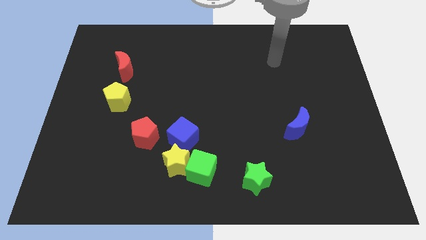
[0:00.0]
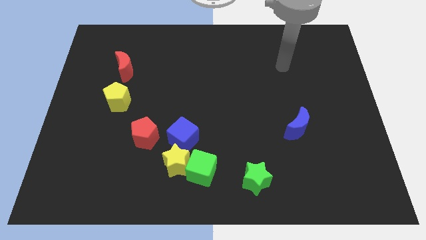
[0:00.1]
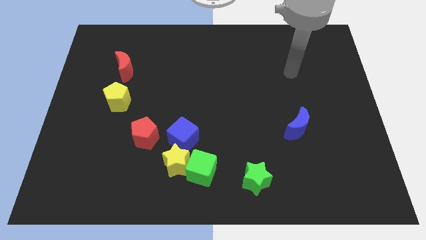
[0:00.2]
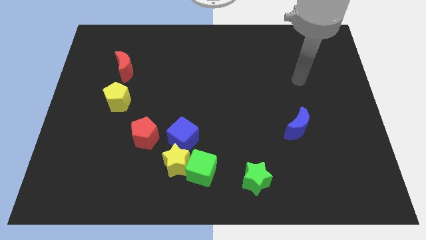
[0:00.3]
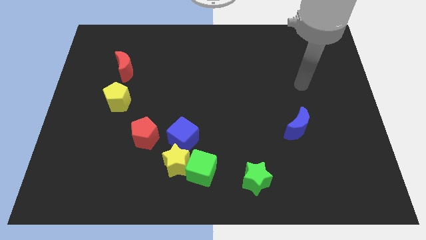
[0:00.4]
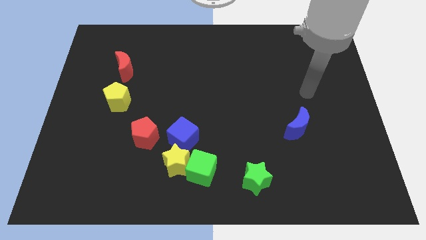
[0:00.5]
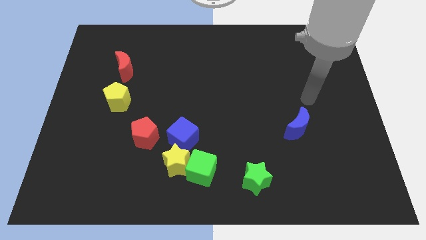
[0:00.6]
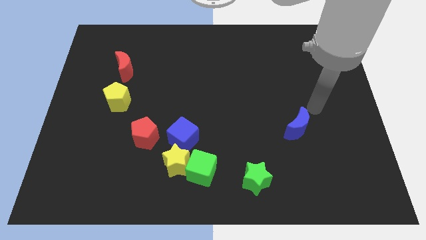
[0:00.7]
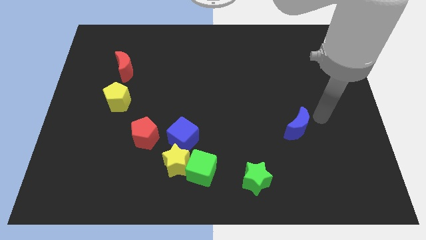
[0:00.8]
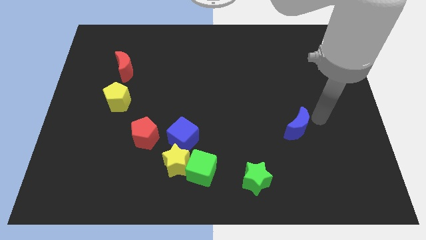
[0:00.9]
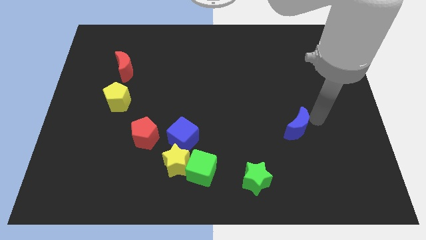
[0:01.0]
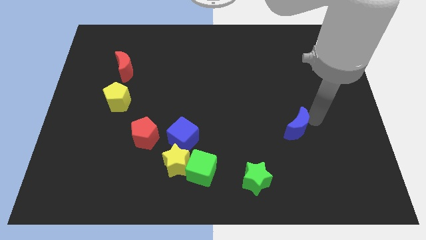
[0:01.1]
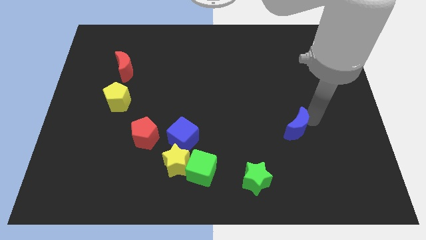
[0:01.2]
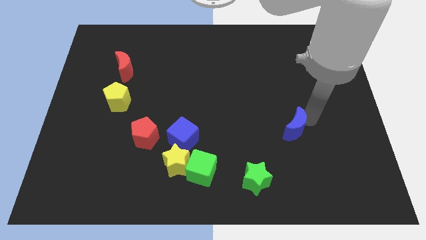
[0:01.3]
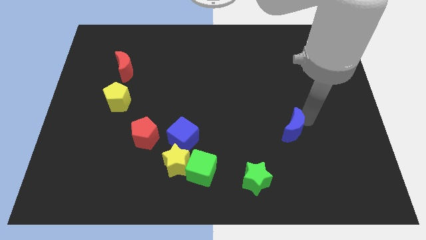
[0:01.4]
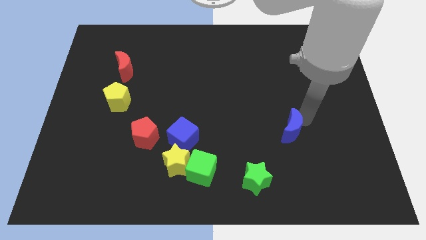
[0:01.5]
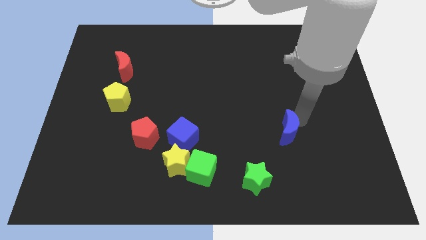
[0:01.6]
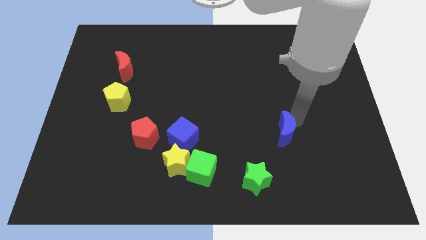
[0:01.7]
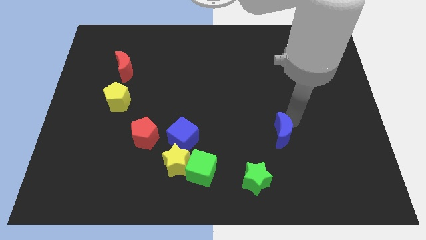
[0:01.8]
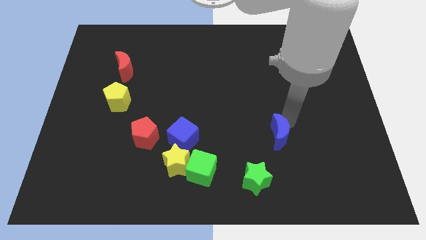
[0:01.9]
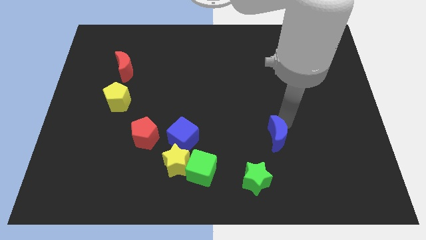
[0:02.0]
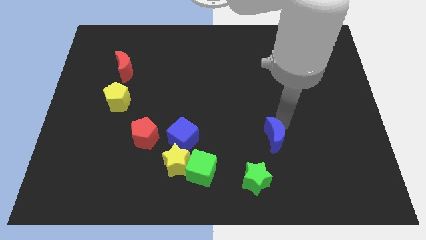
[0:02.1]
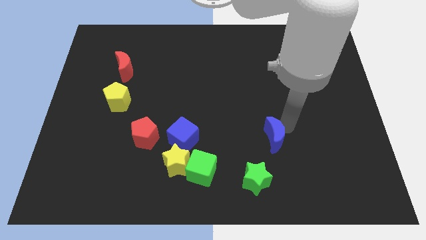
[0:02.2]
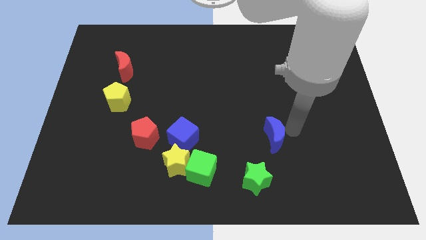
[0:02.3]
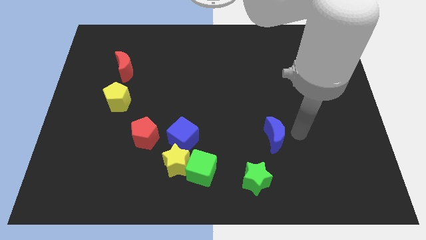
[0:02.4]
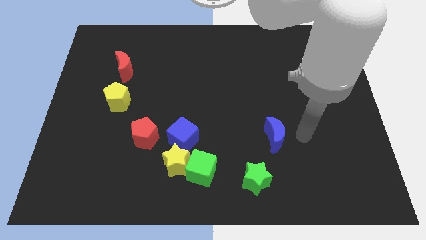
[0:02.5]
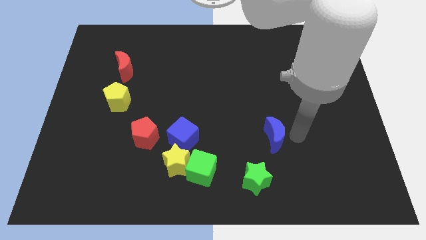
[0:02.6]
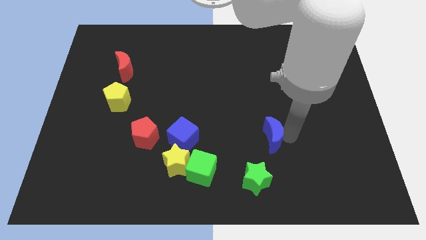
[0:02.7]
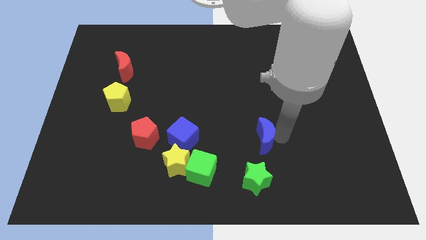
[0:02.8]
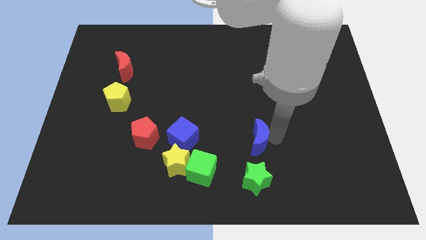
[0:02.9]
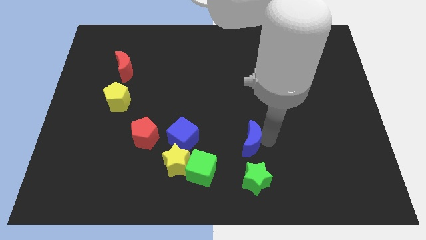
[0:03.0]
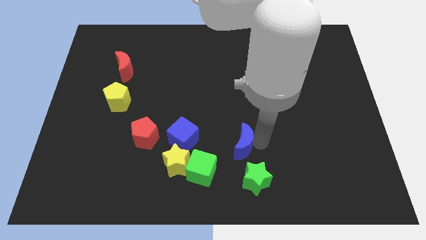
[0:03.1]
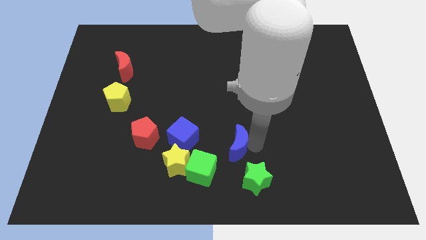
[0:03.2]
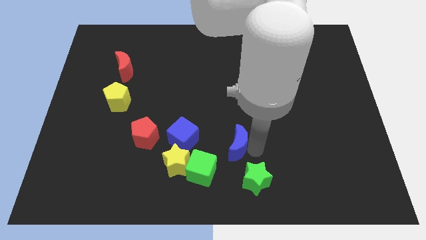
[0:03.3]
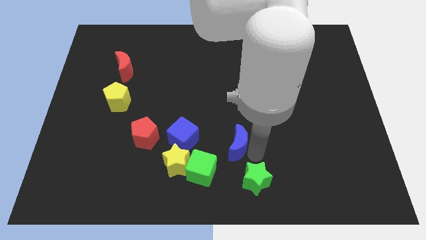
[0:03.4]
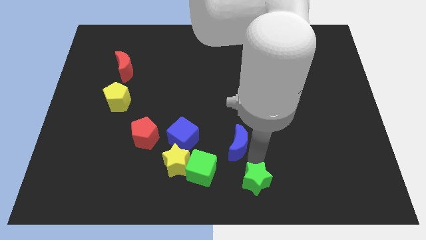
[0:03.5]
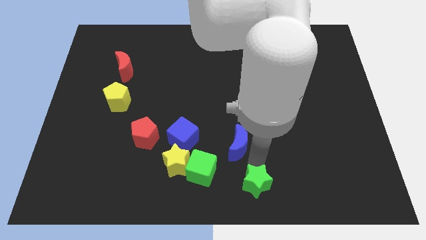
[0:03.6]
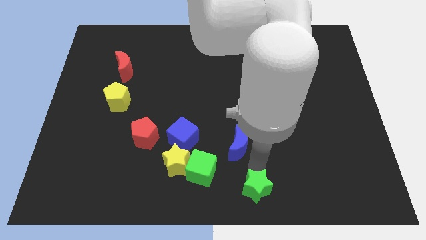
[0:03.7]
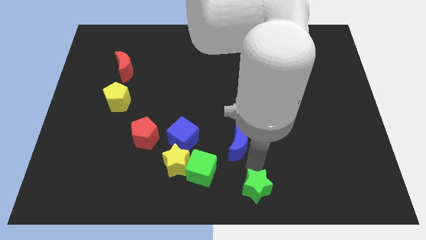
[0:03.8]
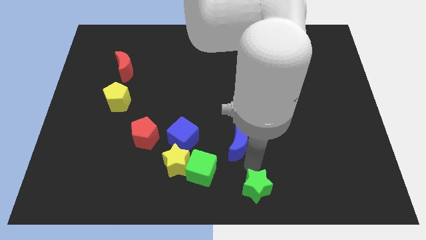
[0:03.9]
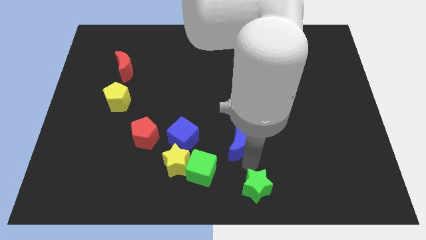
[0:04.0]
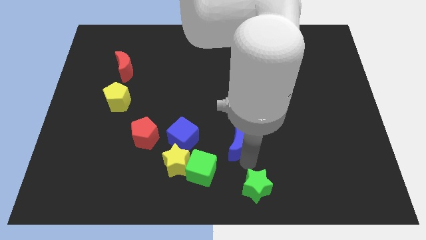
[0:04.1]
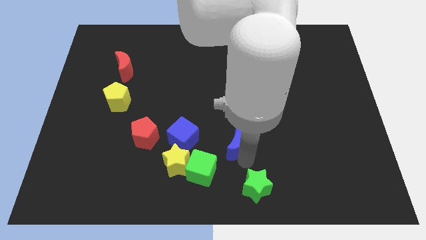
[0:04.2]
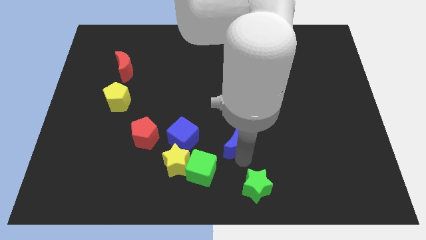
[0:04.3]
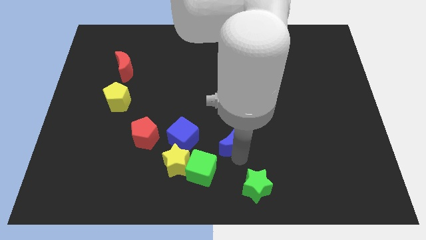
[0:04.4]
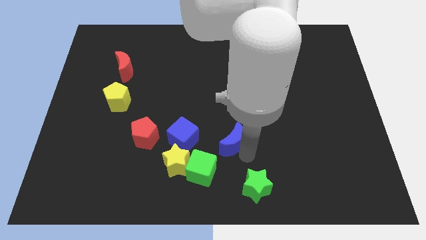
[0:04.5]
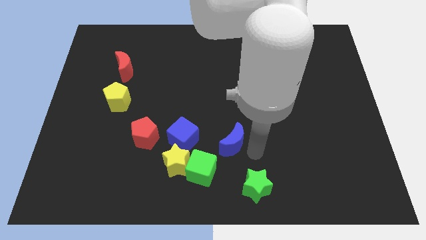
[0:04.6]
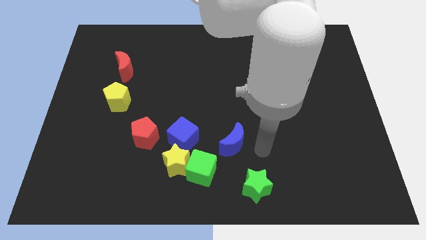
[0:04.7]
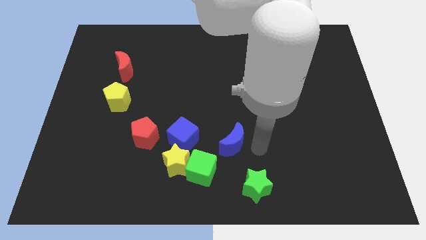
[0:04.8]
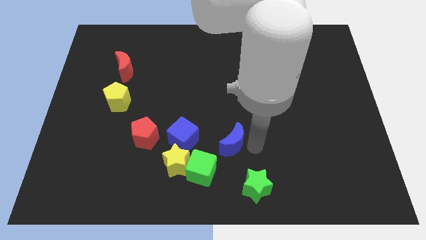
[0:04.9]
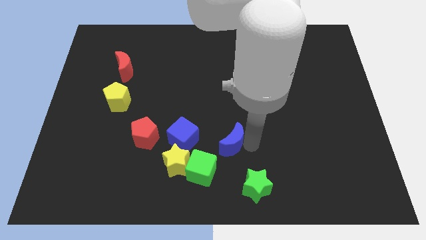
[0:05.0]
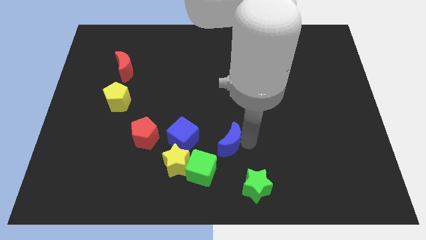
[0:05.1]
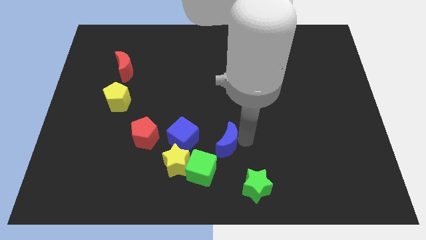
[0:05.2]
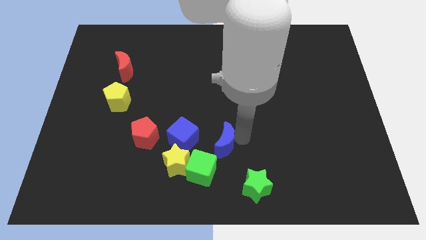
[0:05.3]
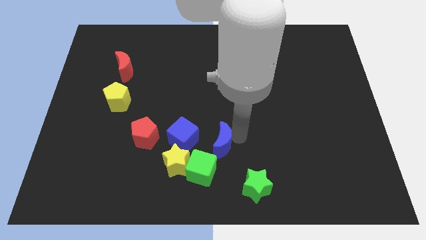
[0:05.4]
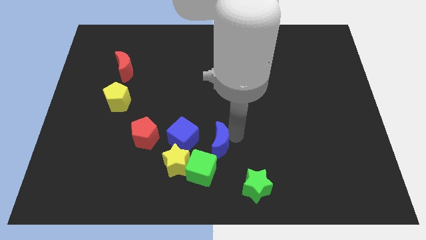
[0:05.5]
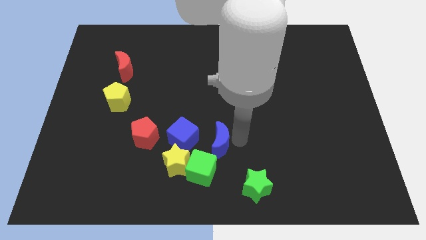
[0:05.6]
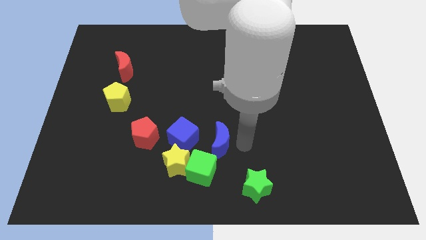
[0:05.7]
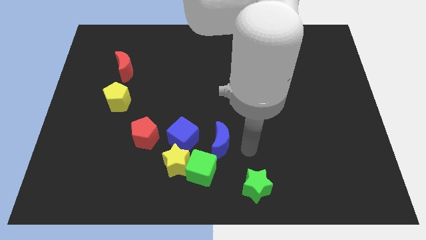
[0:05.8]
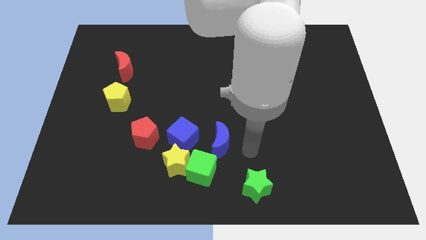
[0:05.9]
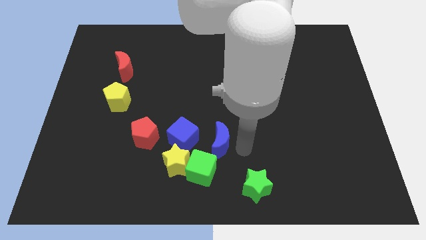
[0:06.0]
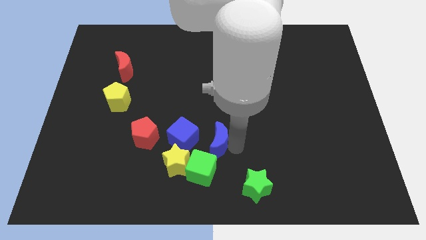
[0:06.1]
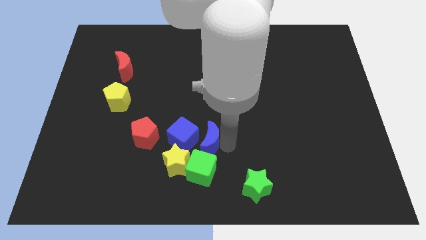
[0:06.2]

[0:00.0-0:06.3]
move the blue moon right of the red pentagon

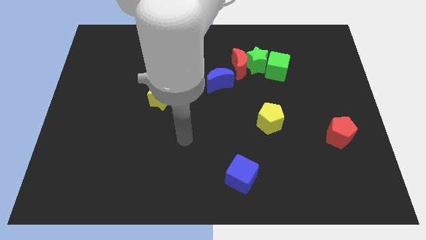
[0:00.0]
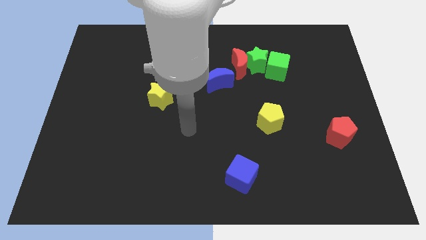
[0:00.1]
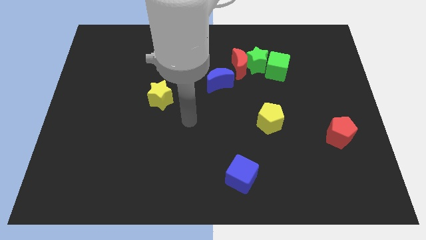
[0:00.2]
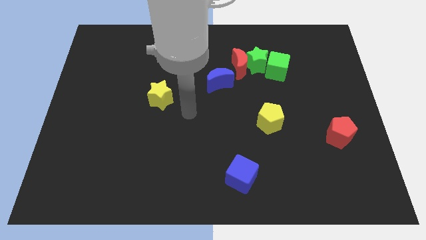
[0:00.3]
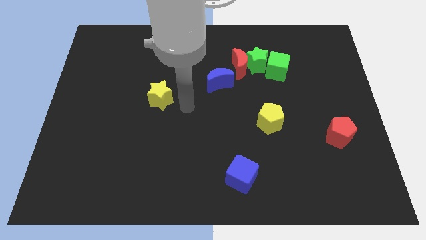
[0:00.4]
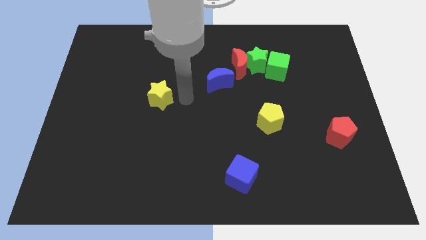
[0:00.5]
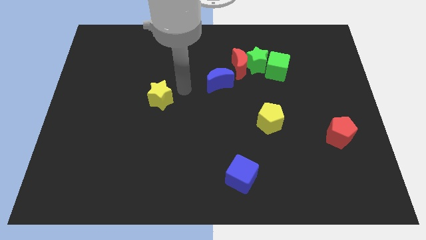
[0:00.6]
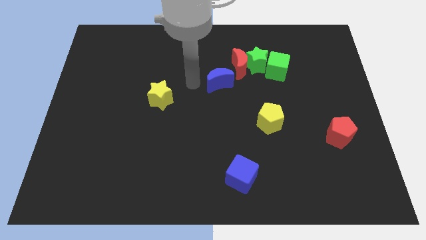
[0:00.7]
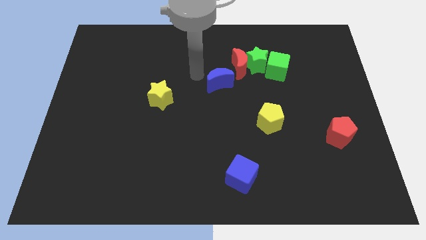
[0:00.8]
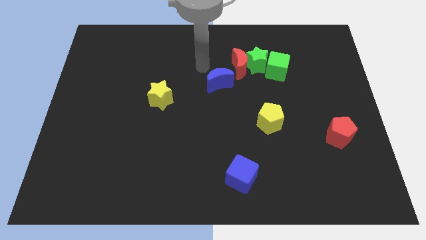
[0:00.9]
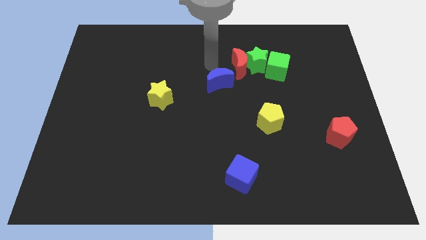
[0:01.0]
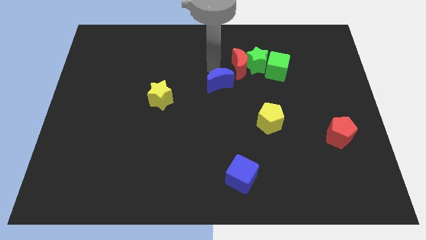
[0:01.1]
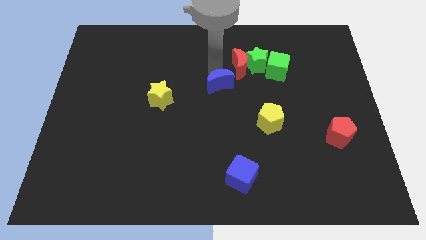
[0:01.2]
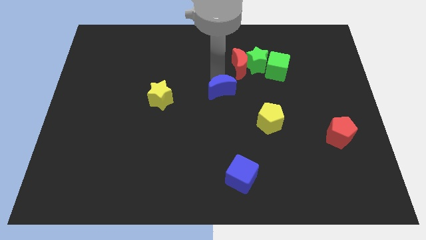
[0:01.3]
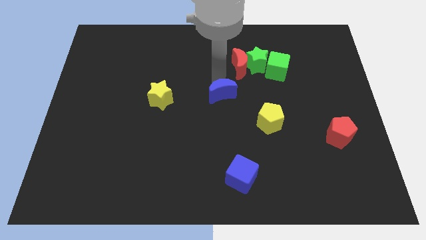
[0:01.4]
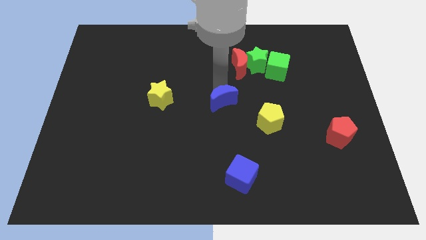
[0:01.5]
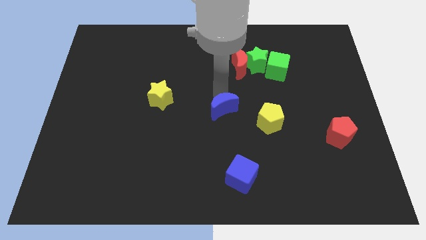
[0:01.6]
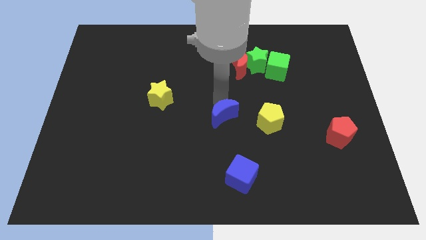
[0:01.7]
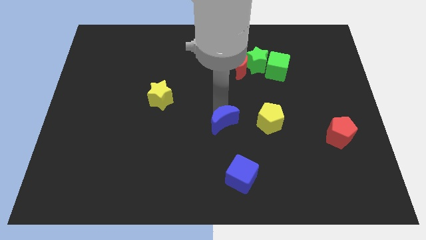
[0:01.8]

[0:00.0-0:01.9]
put the blue moon to the top of the blue cube
